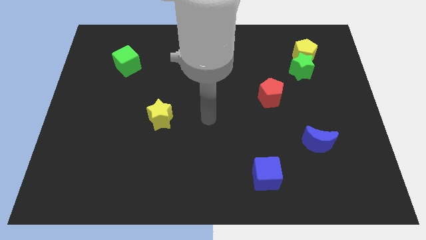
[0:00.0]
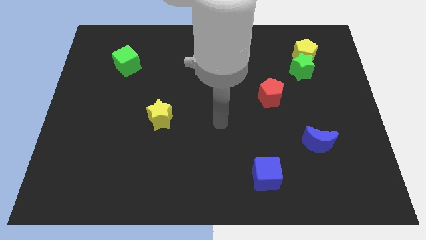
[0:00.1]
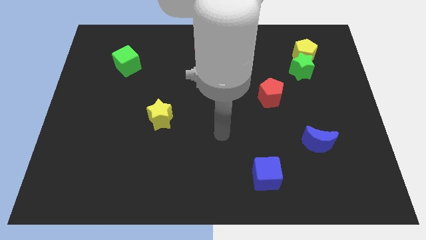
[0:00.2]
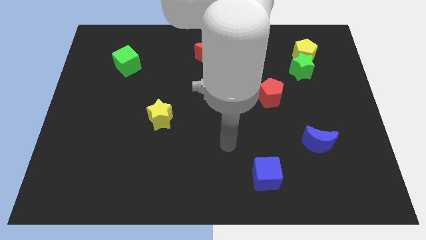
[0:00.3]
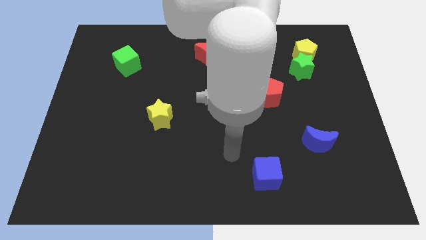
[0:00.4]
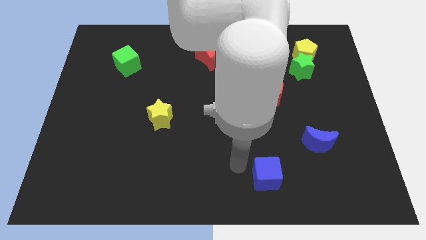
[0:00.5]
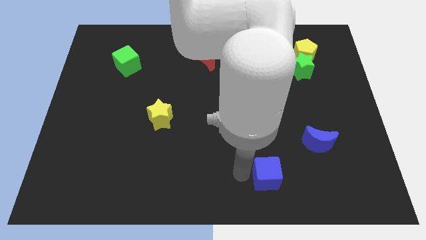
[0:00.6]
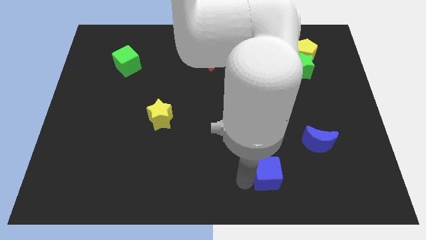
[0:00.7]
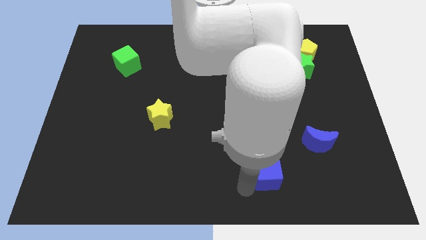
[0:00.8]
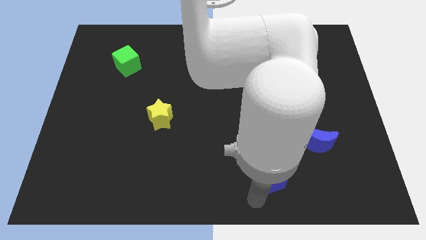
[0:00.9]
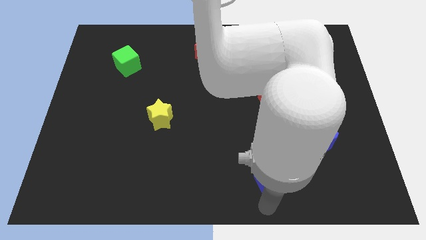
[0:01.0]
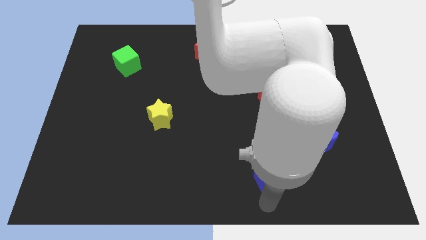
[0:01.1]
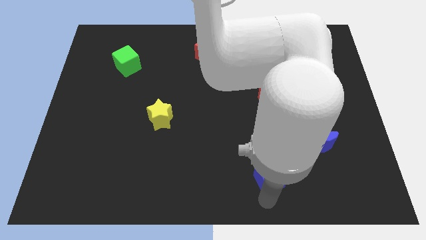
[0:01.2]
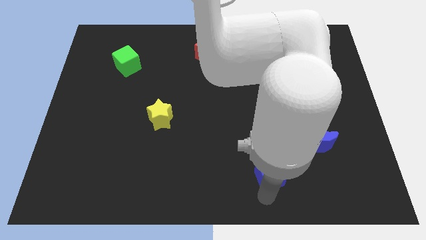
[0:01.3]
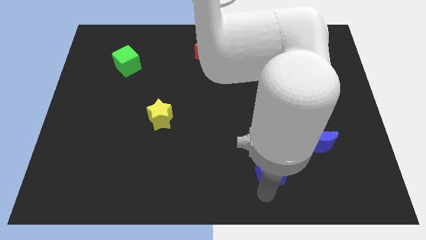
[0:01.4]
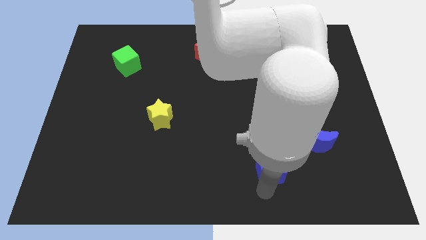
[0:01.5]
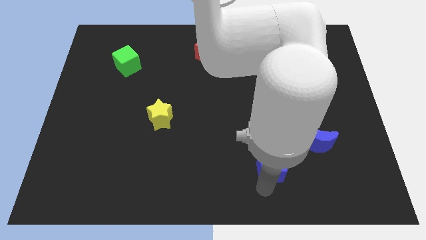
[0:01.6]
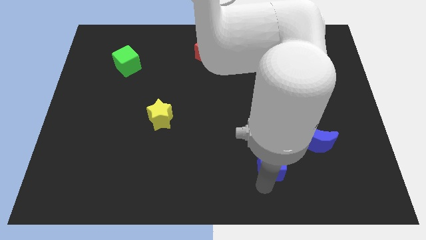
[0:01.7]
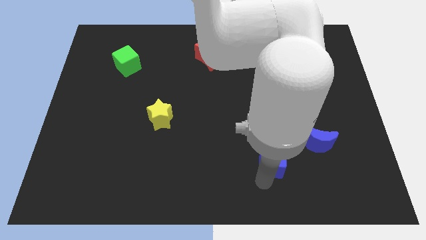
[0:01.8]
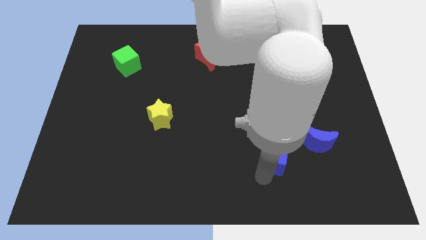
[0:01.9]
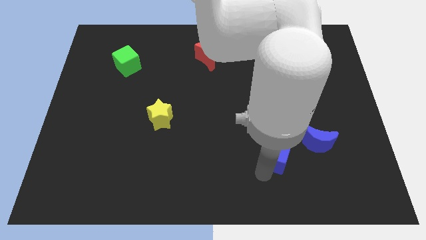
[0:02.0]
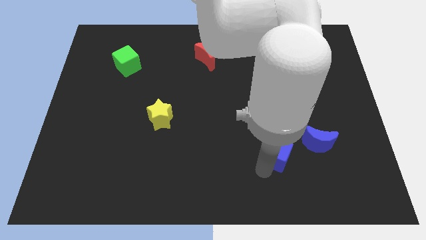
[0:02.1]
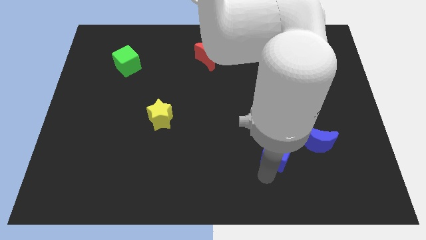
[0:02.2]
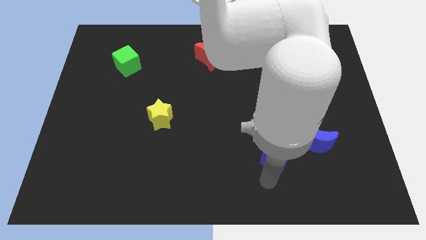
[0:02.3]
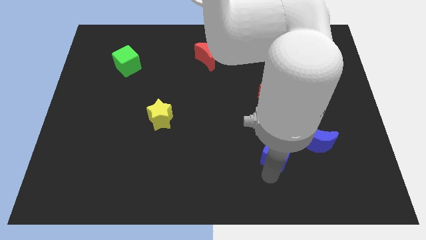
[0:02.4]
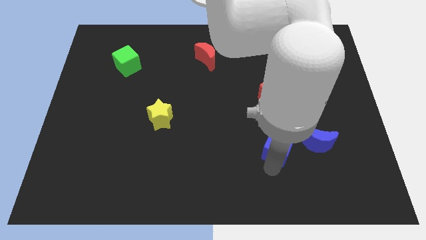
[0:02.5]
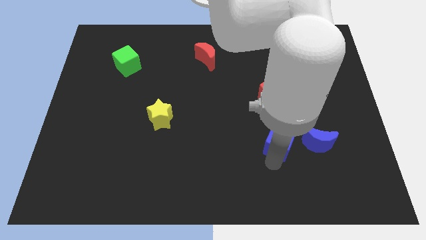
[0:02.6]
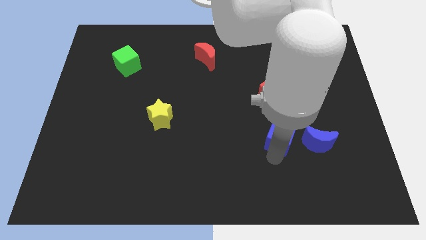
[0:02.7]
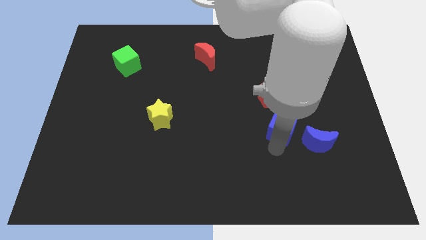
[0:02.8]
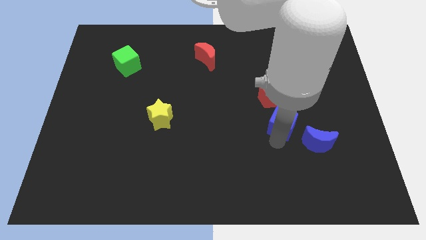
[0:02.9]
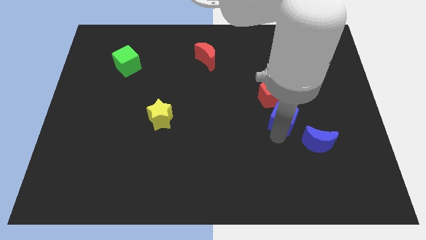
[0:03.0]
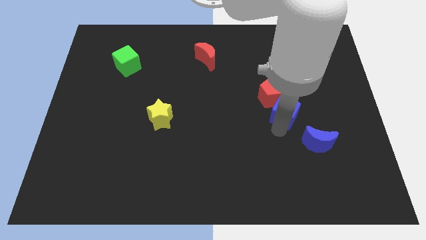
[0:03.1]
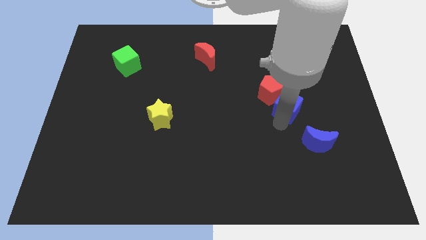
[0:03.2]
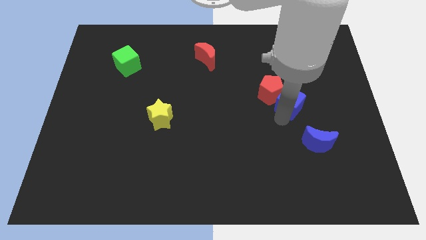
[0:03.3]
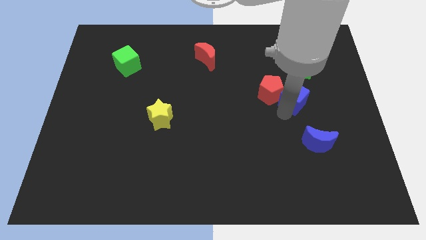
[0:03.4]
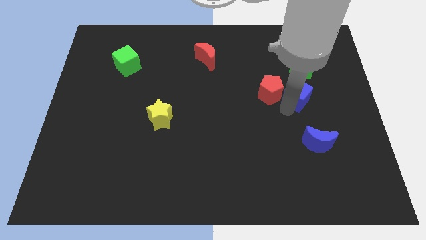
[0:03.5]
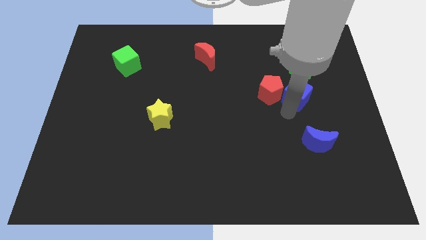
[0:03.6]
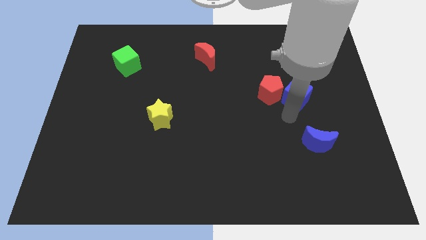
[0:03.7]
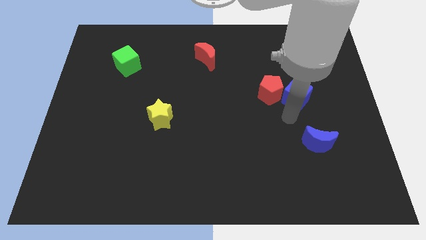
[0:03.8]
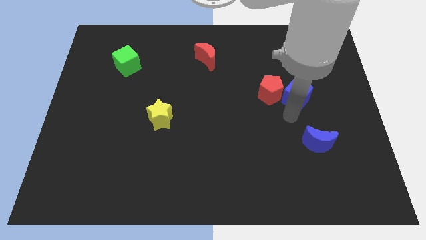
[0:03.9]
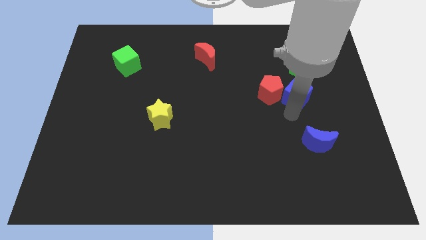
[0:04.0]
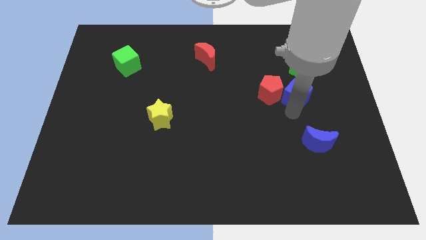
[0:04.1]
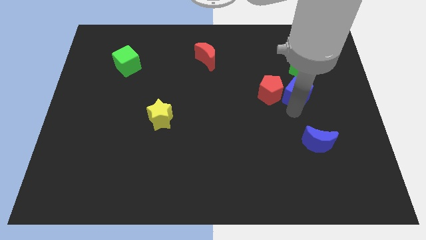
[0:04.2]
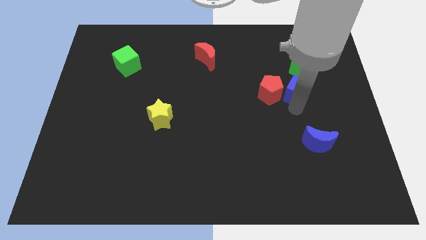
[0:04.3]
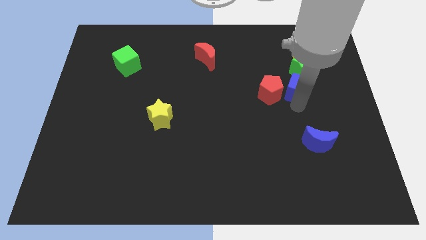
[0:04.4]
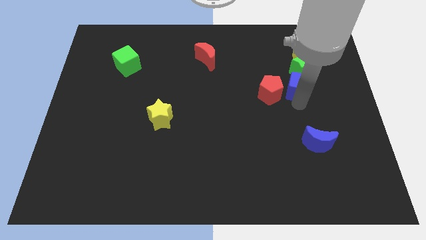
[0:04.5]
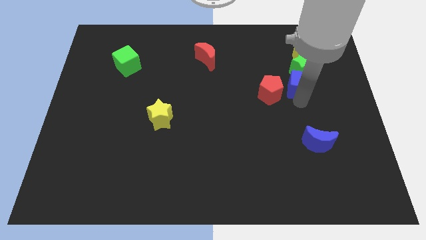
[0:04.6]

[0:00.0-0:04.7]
slide the blue cube close to the green star

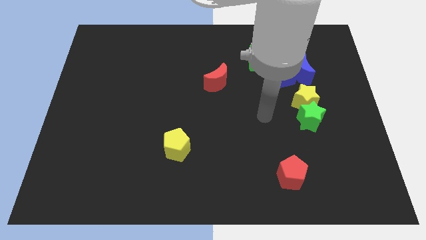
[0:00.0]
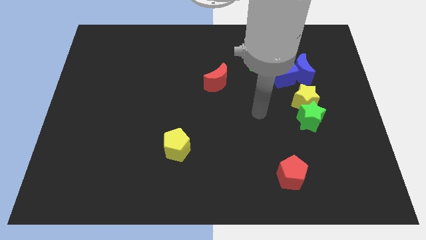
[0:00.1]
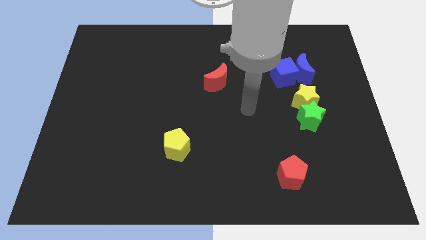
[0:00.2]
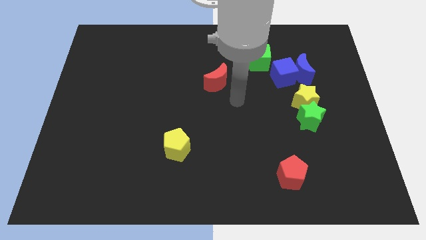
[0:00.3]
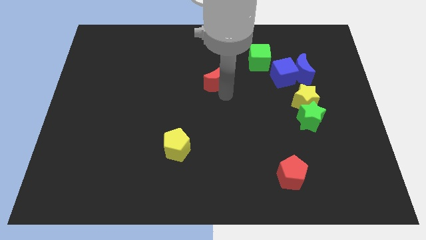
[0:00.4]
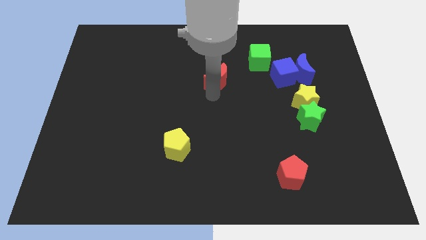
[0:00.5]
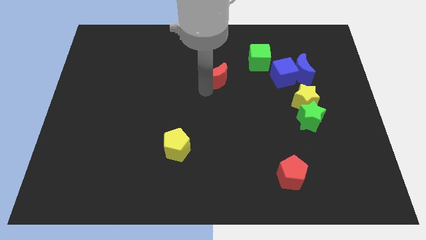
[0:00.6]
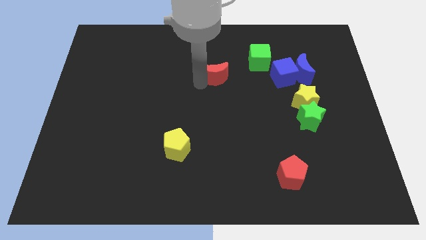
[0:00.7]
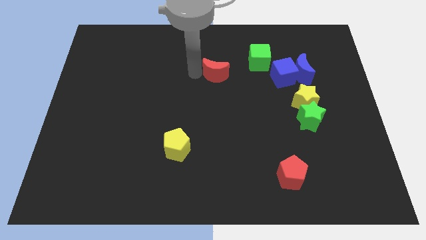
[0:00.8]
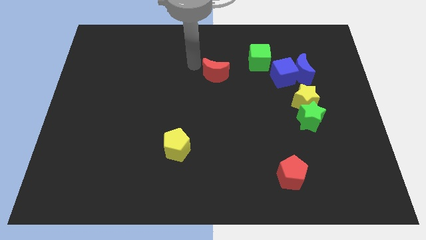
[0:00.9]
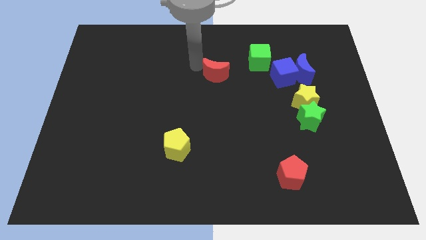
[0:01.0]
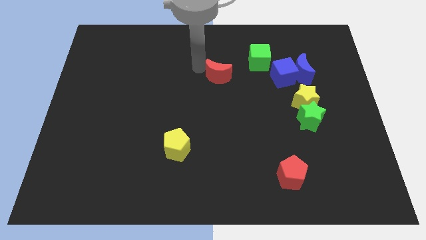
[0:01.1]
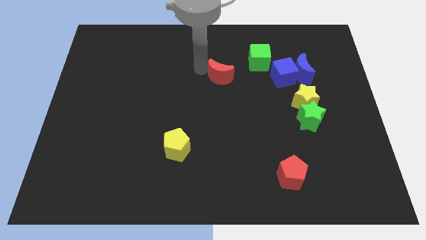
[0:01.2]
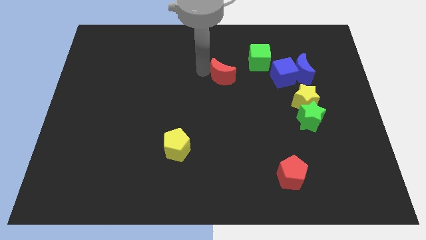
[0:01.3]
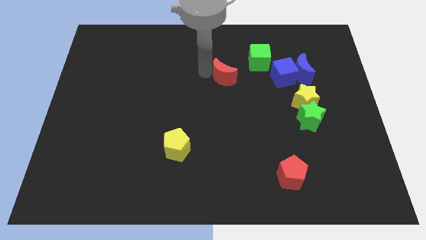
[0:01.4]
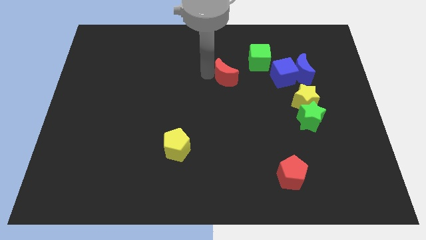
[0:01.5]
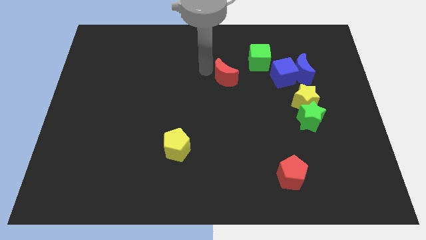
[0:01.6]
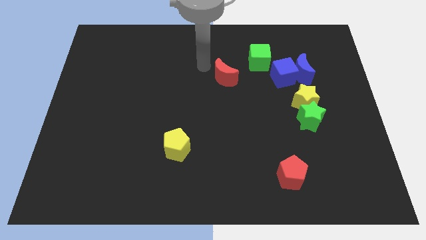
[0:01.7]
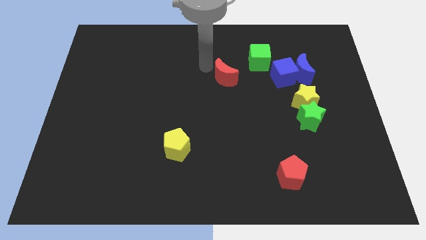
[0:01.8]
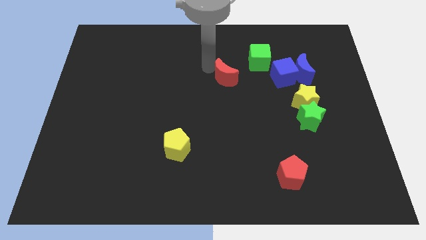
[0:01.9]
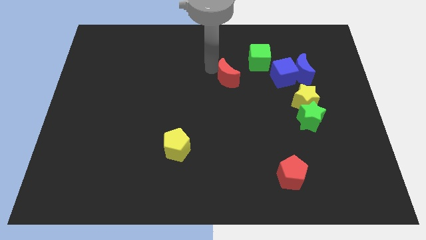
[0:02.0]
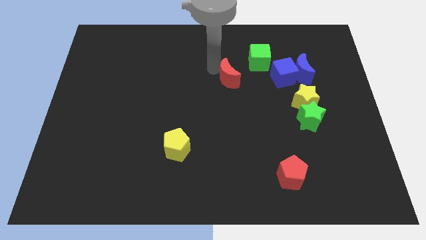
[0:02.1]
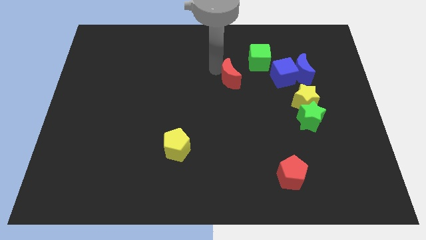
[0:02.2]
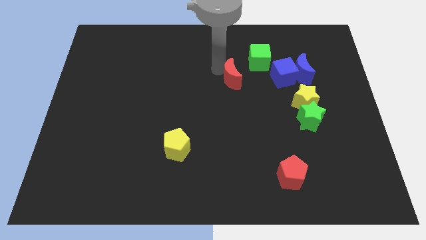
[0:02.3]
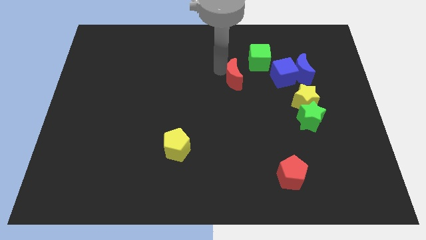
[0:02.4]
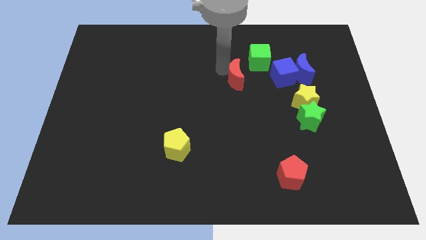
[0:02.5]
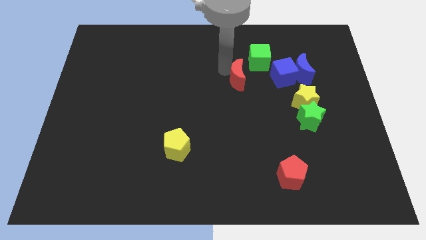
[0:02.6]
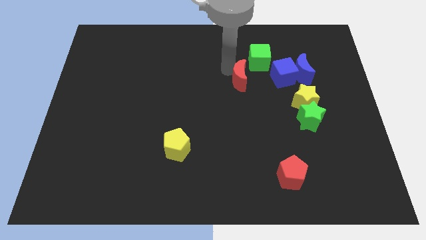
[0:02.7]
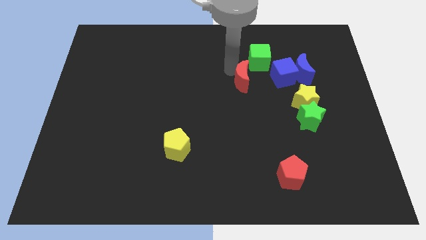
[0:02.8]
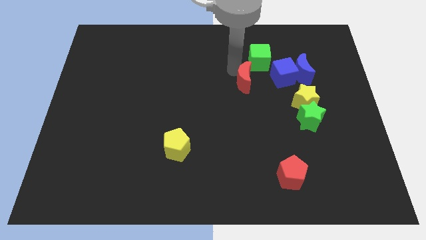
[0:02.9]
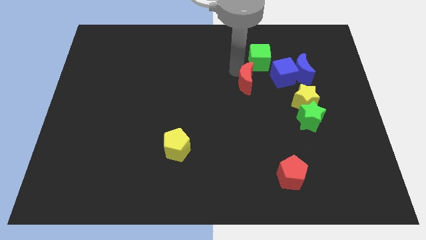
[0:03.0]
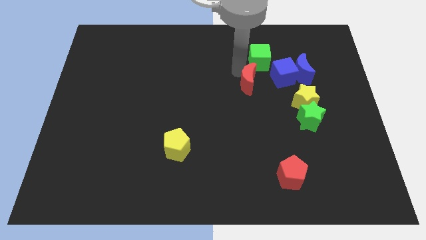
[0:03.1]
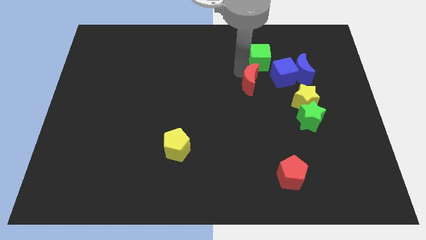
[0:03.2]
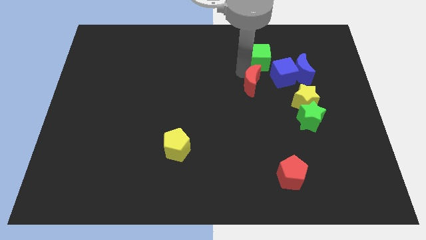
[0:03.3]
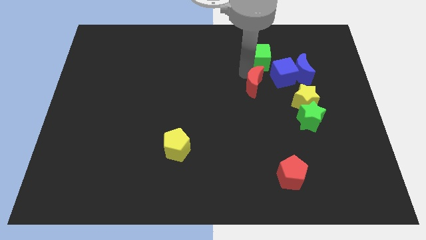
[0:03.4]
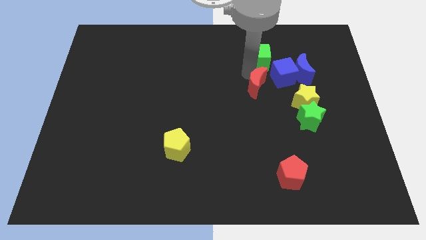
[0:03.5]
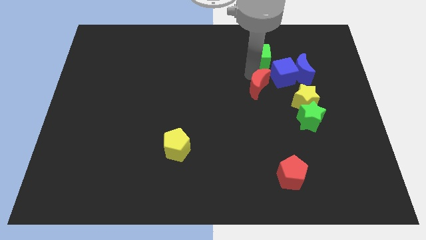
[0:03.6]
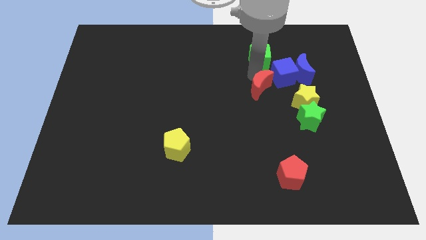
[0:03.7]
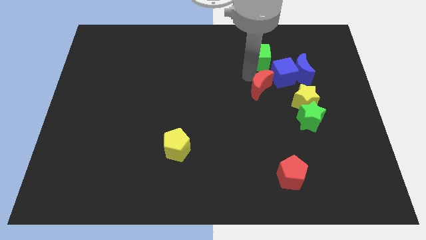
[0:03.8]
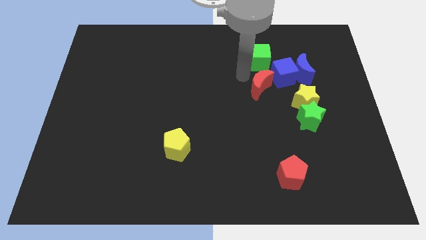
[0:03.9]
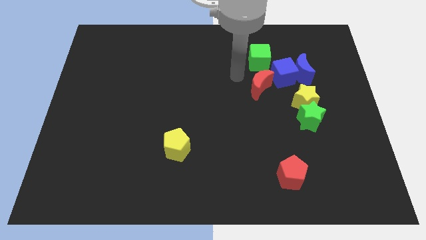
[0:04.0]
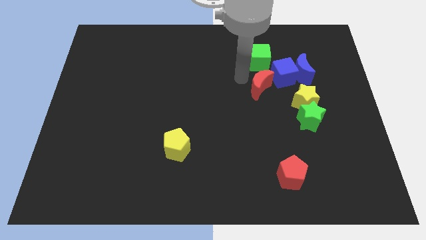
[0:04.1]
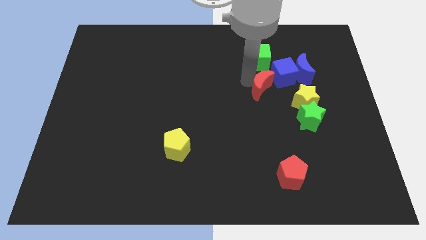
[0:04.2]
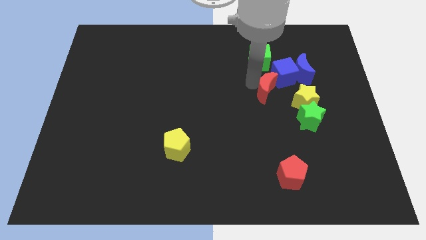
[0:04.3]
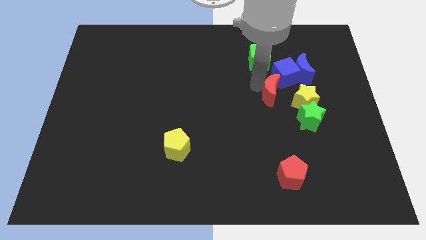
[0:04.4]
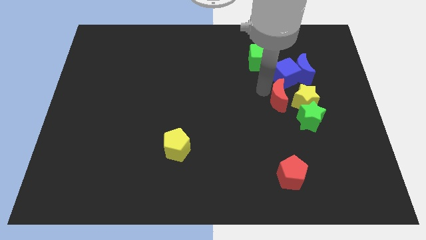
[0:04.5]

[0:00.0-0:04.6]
put the red moon to the yellow star
